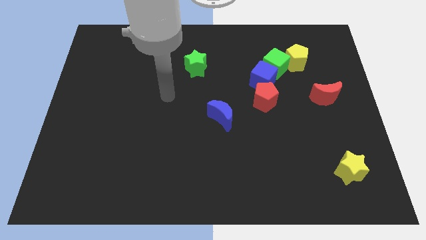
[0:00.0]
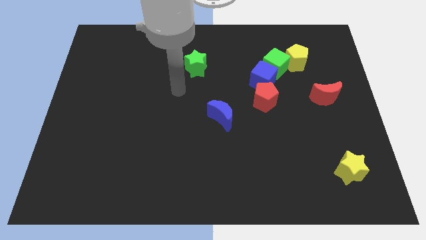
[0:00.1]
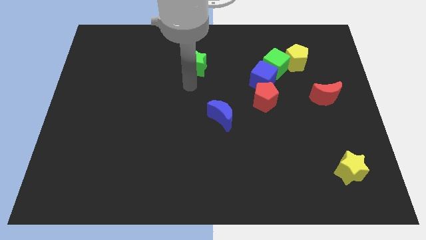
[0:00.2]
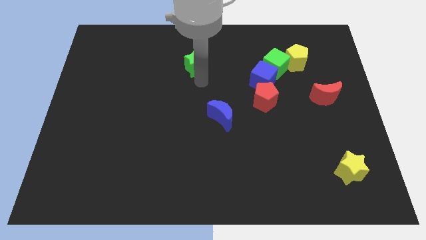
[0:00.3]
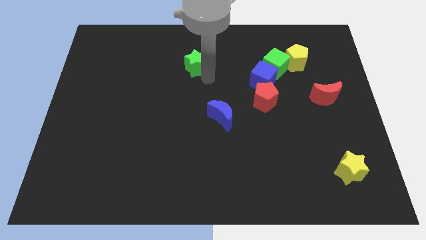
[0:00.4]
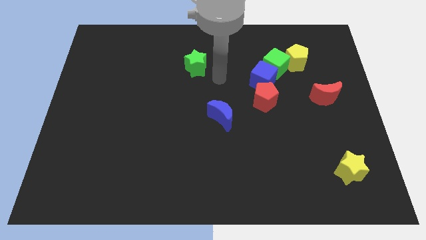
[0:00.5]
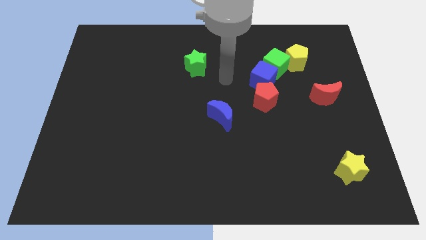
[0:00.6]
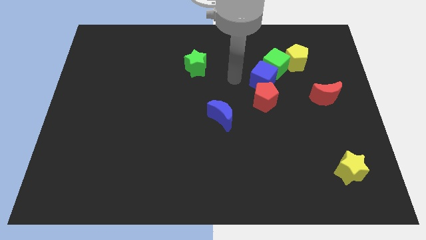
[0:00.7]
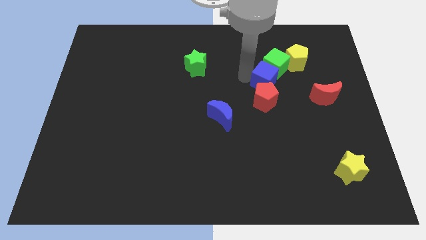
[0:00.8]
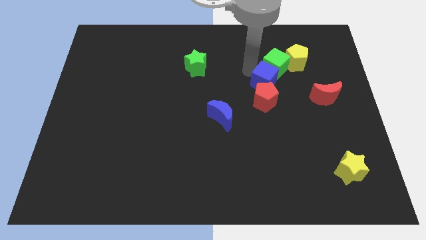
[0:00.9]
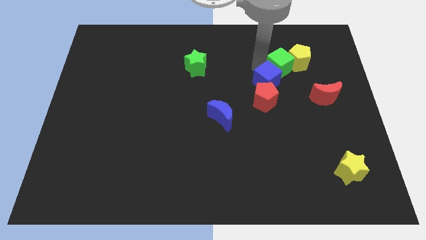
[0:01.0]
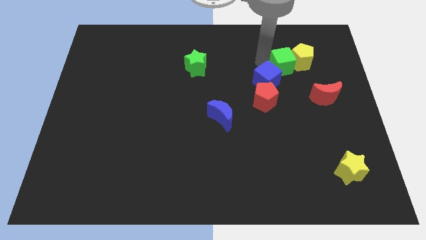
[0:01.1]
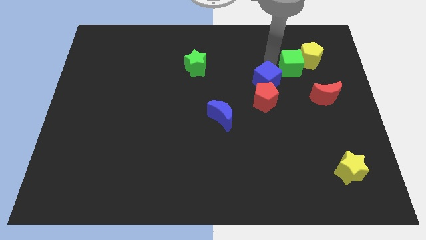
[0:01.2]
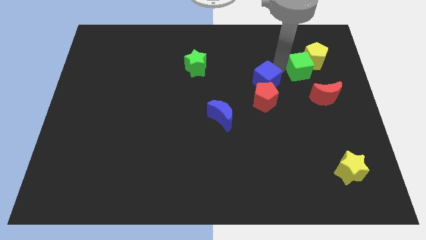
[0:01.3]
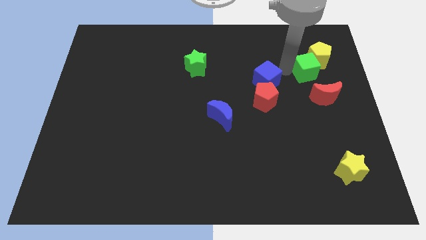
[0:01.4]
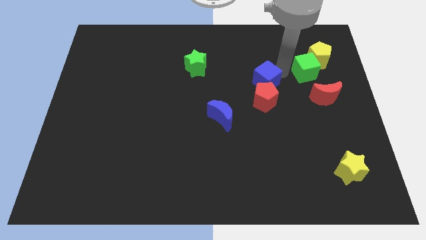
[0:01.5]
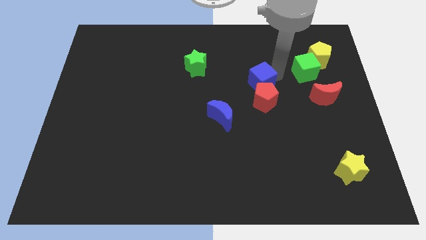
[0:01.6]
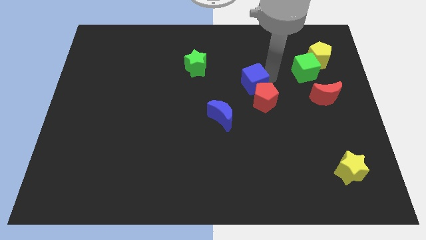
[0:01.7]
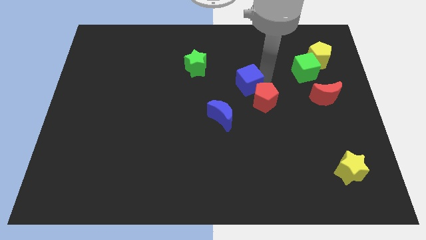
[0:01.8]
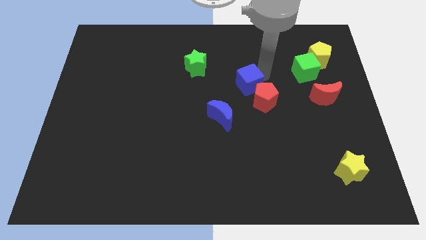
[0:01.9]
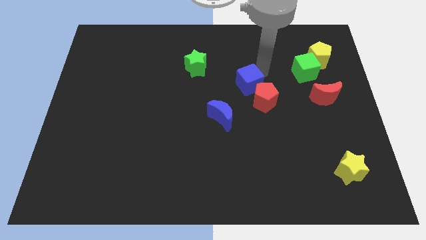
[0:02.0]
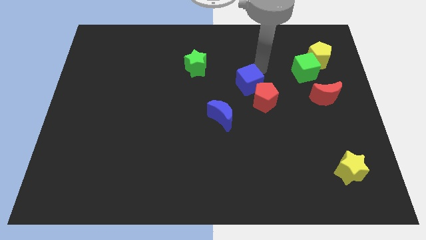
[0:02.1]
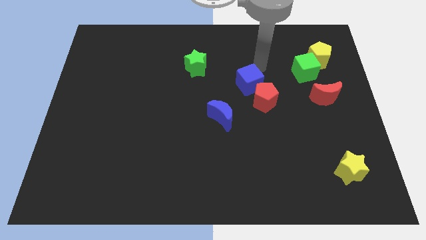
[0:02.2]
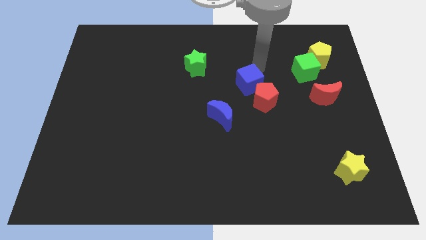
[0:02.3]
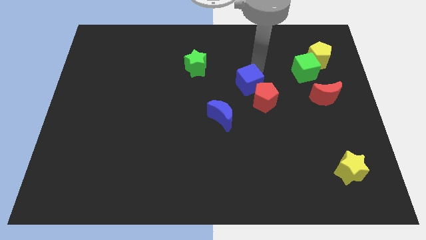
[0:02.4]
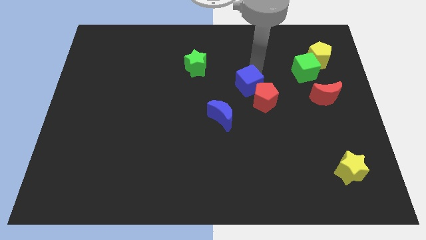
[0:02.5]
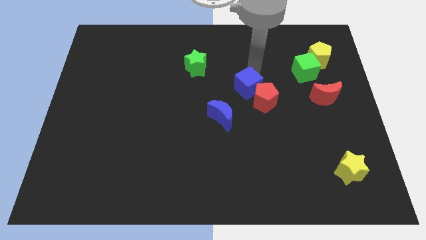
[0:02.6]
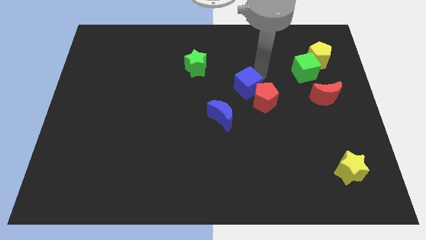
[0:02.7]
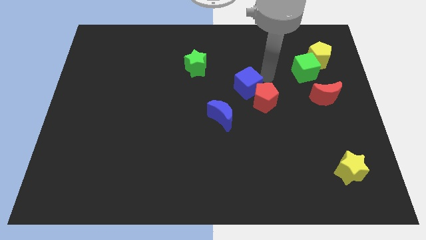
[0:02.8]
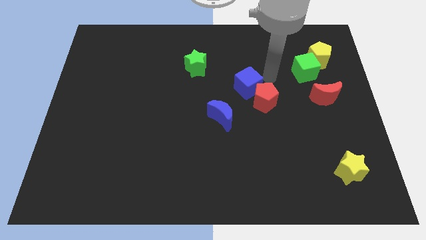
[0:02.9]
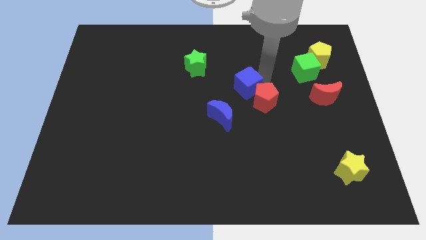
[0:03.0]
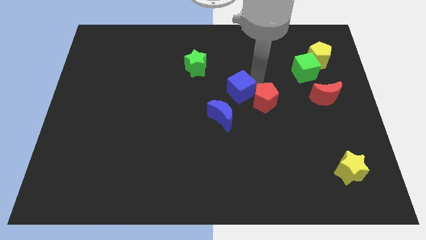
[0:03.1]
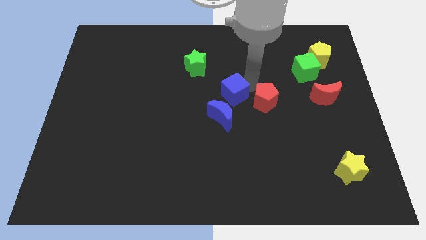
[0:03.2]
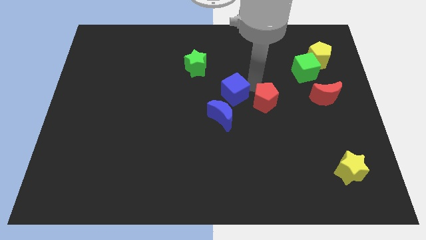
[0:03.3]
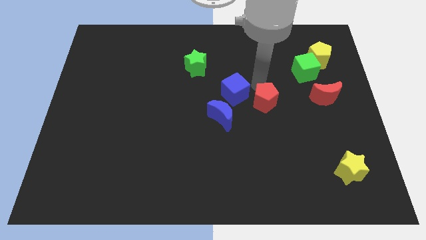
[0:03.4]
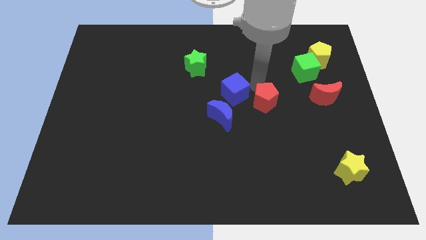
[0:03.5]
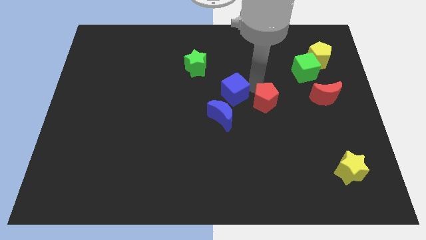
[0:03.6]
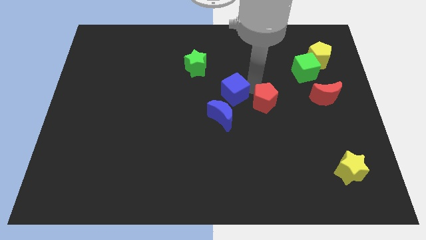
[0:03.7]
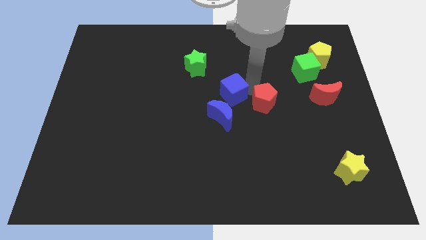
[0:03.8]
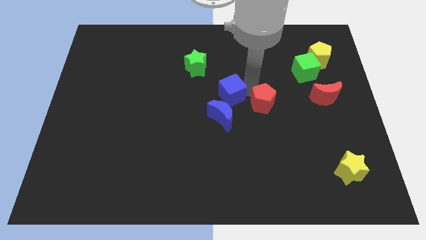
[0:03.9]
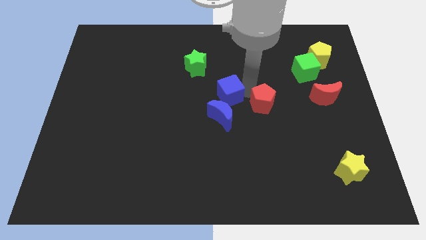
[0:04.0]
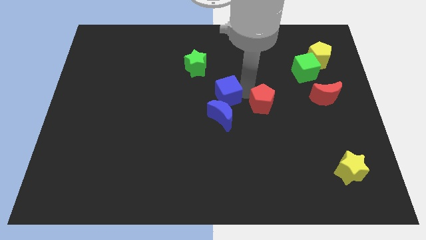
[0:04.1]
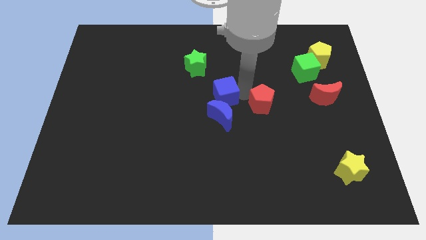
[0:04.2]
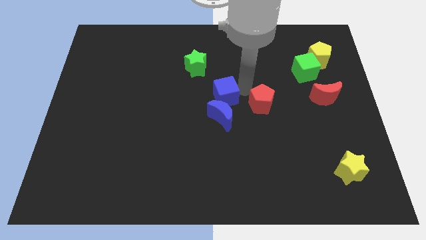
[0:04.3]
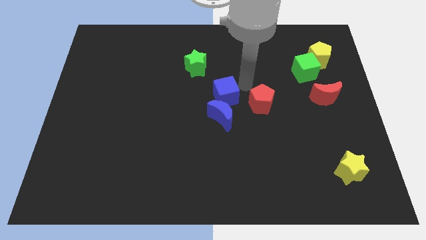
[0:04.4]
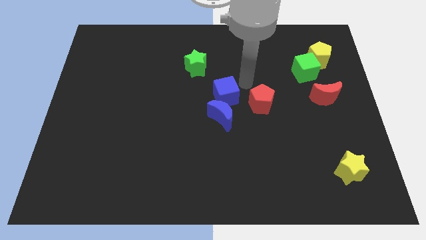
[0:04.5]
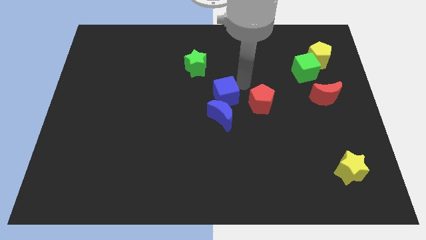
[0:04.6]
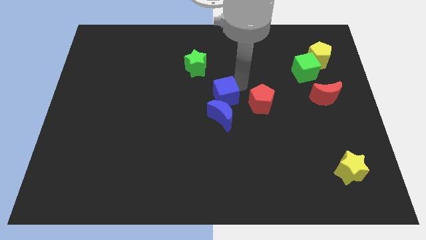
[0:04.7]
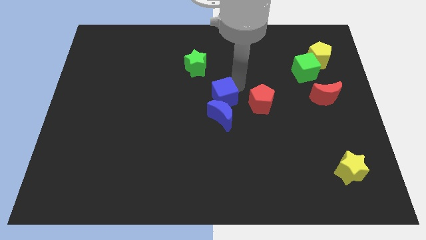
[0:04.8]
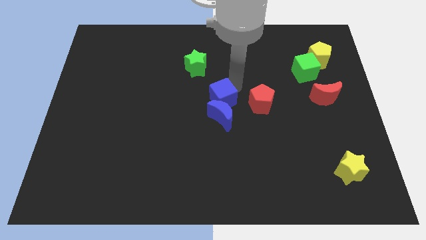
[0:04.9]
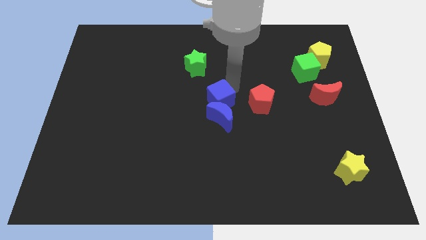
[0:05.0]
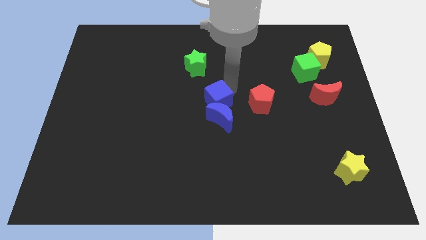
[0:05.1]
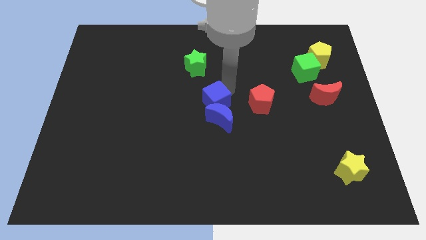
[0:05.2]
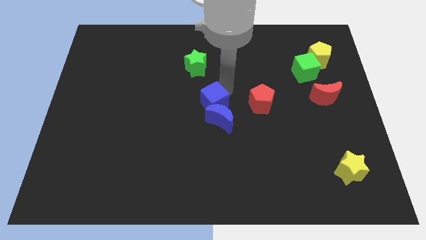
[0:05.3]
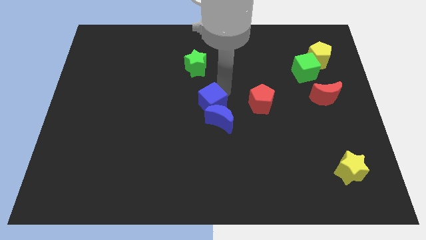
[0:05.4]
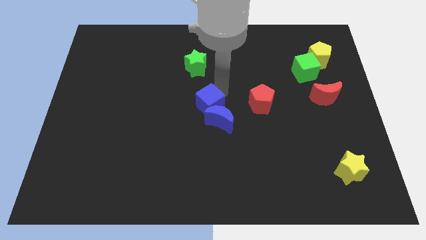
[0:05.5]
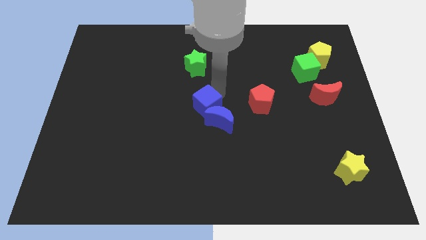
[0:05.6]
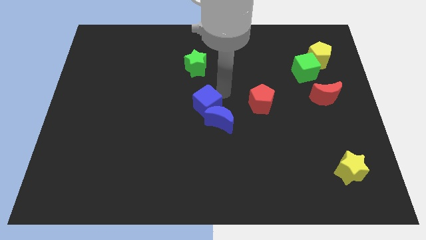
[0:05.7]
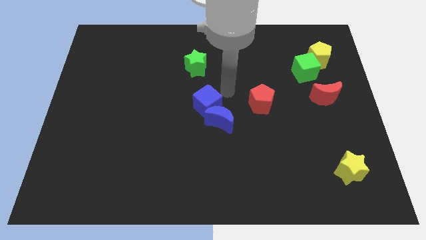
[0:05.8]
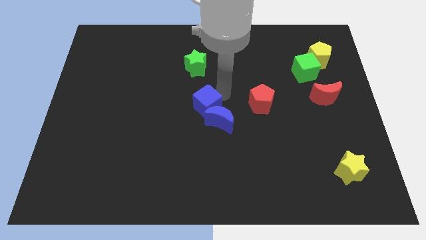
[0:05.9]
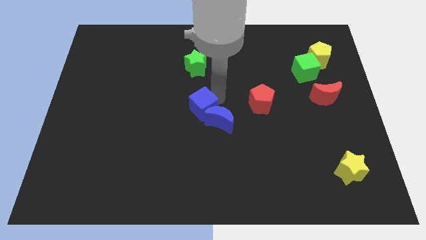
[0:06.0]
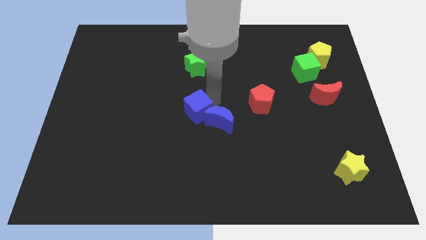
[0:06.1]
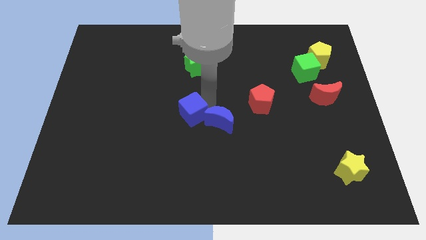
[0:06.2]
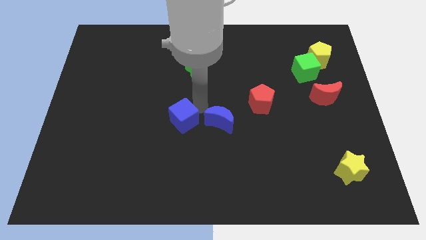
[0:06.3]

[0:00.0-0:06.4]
slide the blue cube diagonally downwards and left

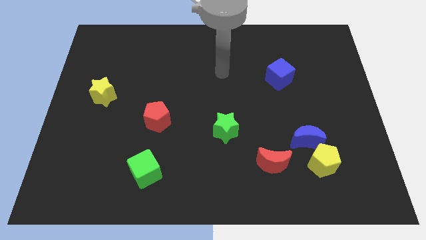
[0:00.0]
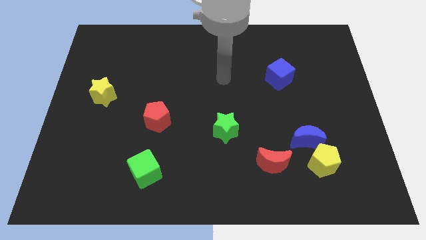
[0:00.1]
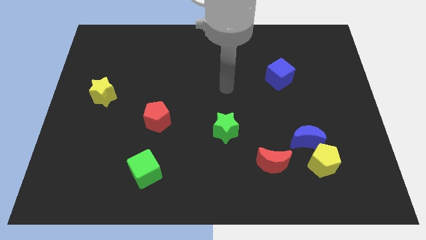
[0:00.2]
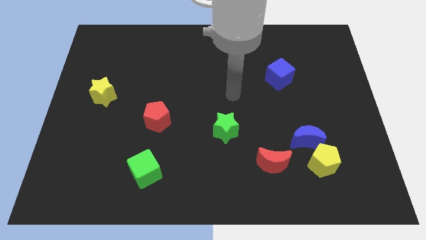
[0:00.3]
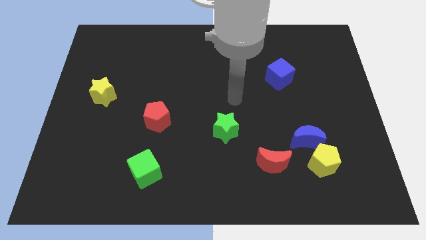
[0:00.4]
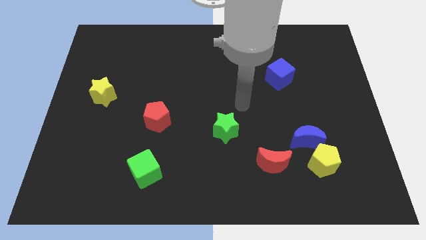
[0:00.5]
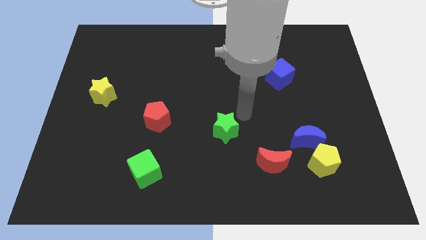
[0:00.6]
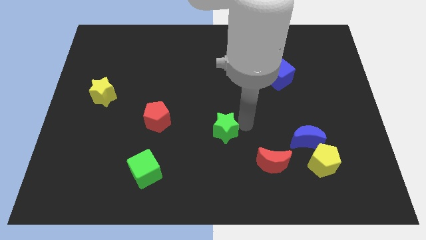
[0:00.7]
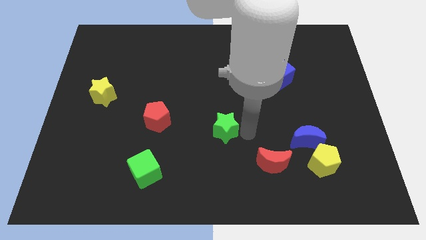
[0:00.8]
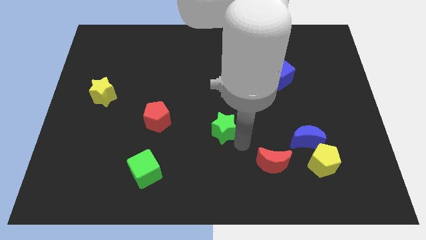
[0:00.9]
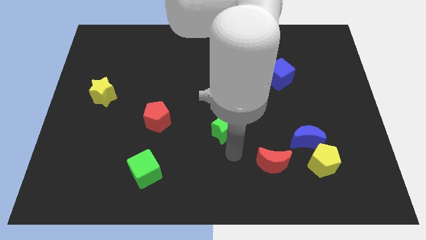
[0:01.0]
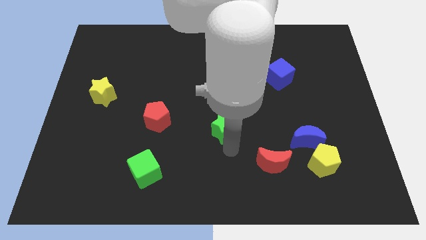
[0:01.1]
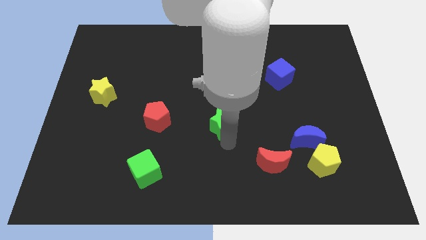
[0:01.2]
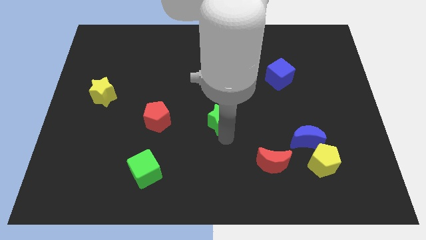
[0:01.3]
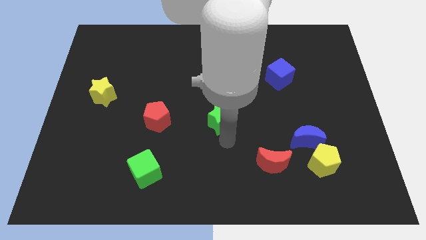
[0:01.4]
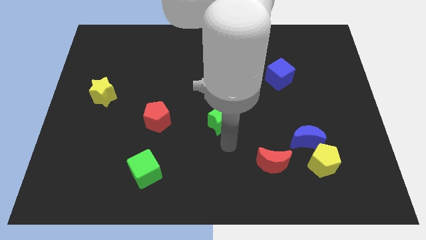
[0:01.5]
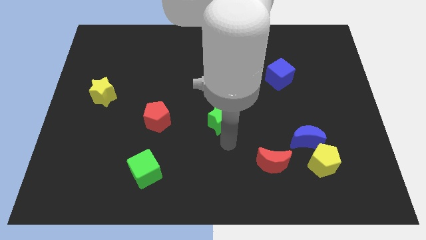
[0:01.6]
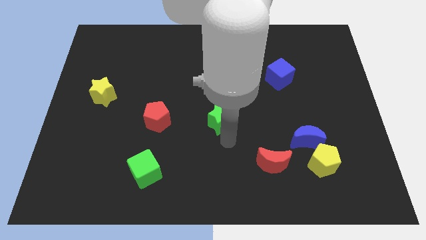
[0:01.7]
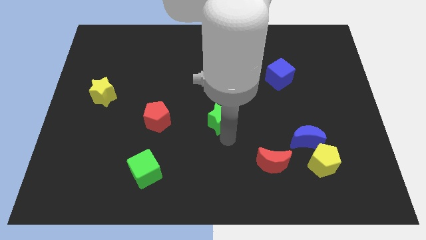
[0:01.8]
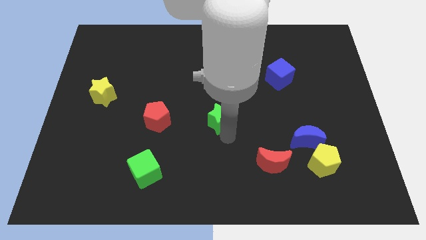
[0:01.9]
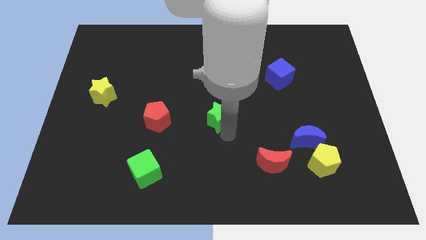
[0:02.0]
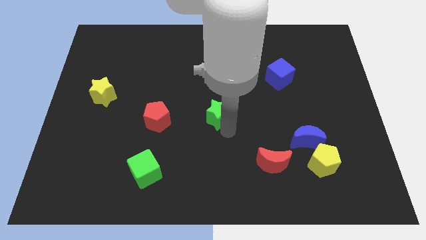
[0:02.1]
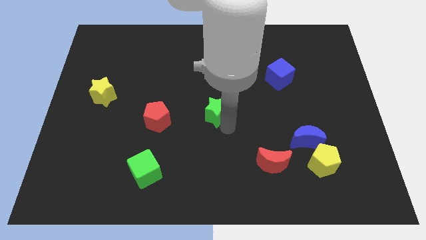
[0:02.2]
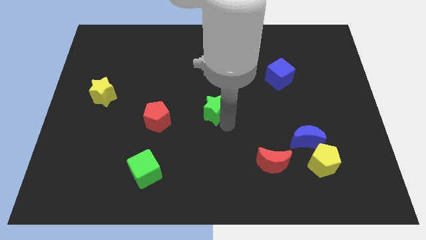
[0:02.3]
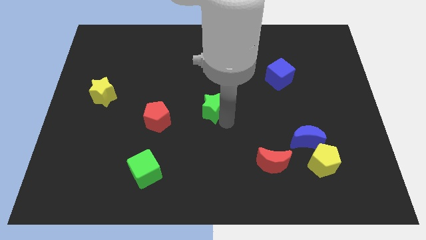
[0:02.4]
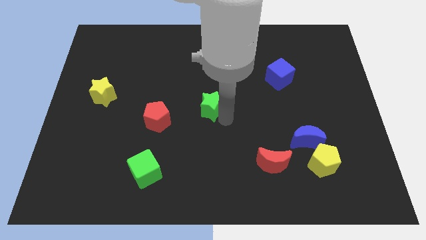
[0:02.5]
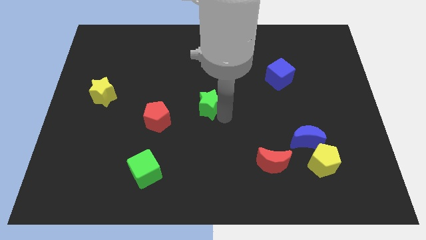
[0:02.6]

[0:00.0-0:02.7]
slightly move the green star diagonally upwards and to the left
